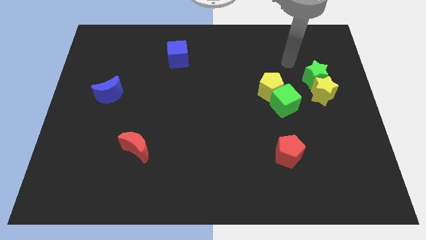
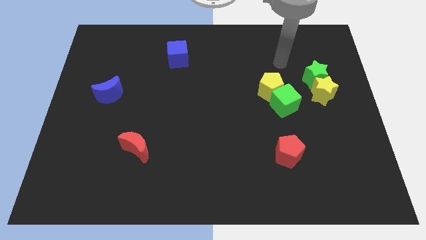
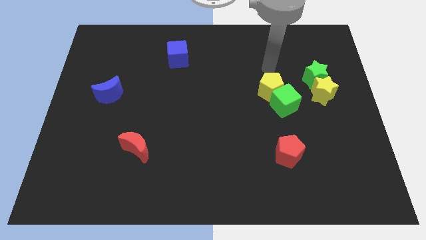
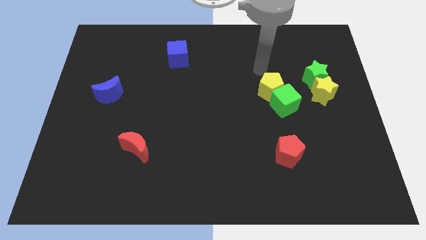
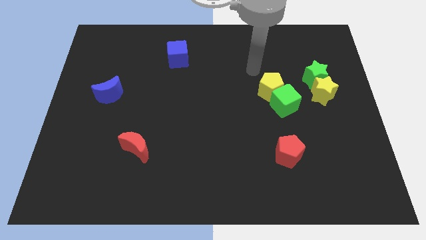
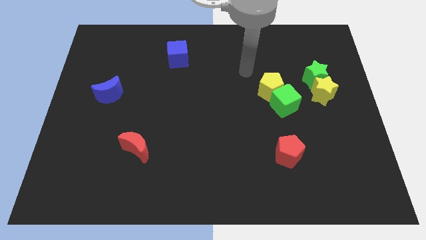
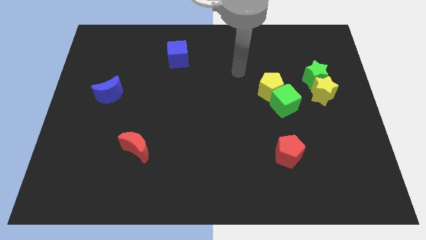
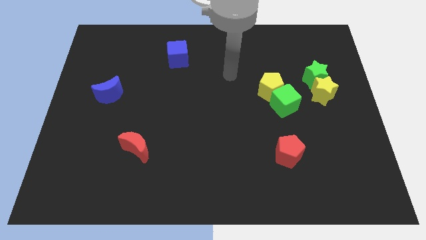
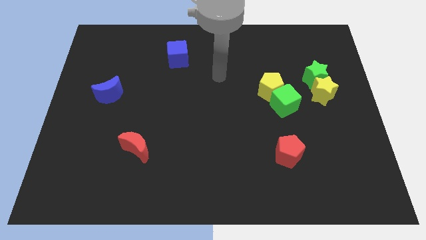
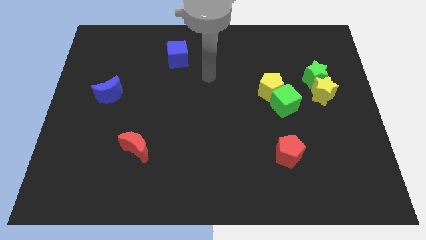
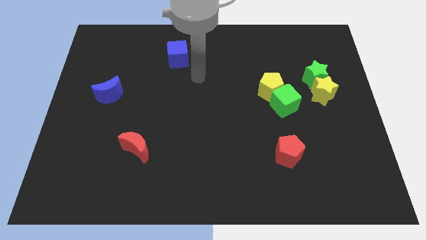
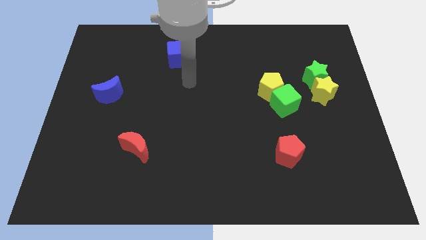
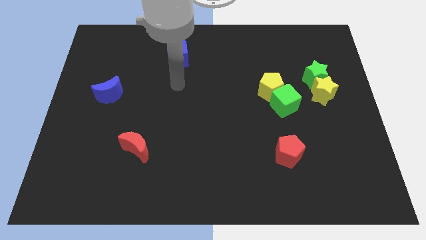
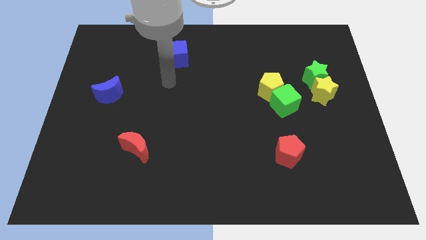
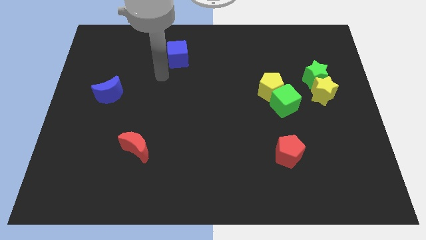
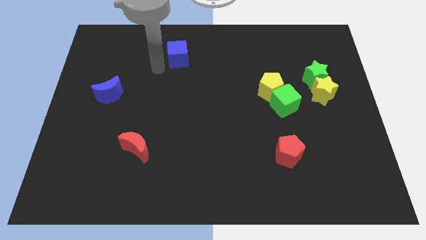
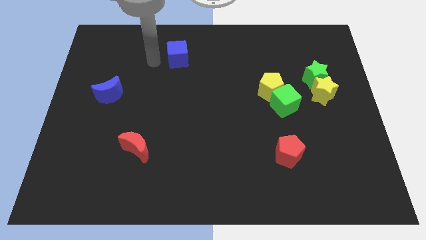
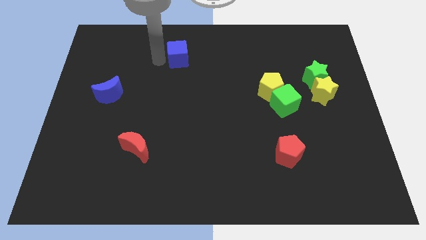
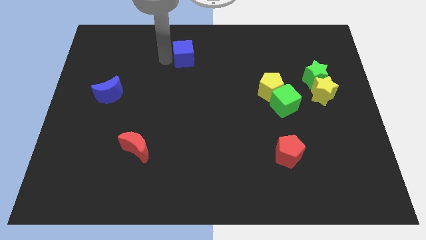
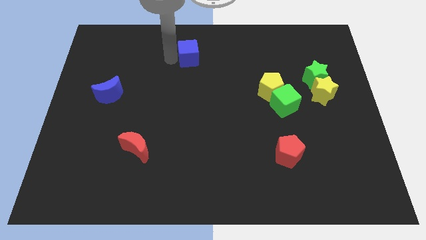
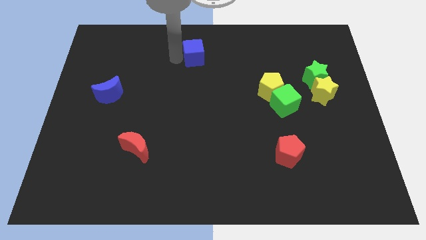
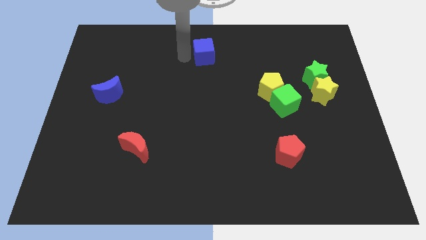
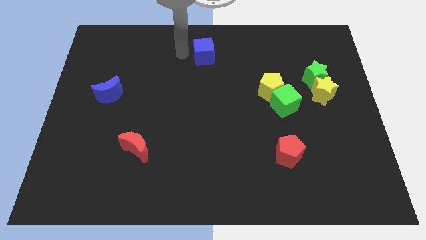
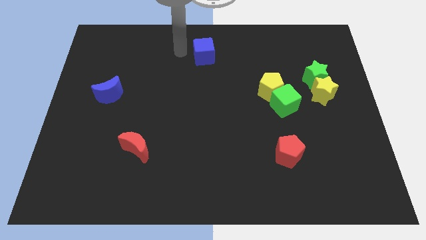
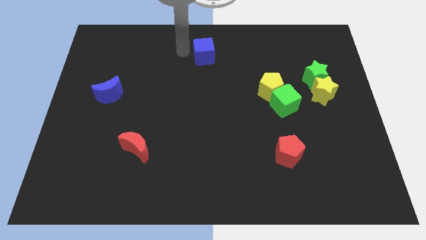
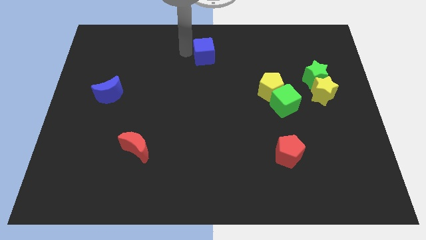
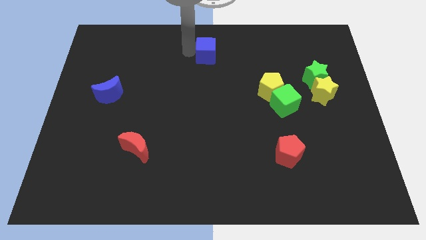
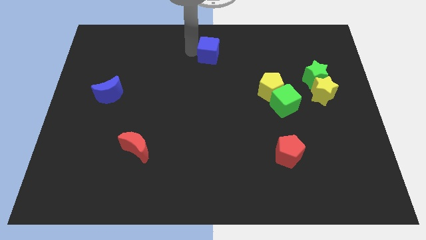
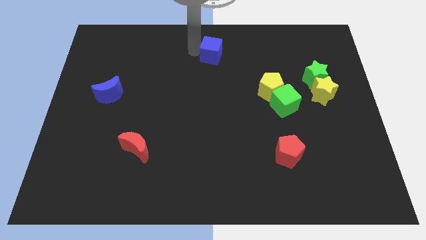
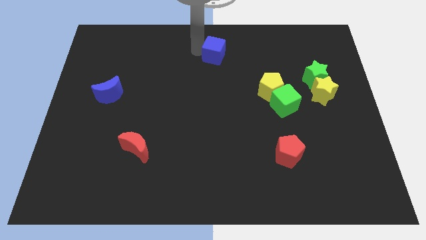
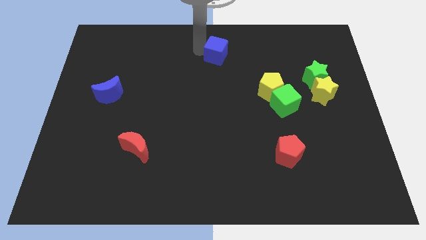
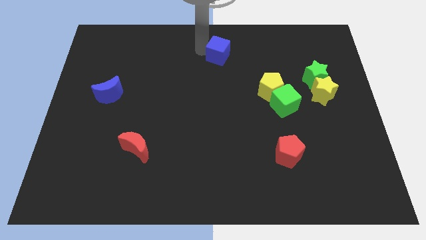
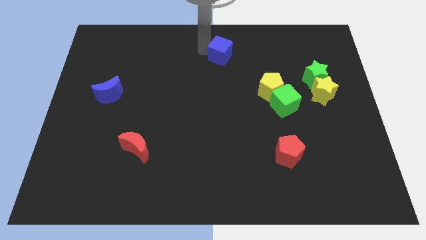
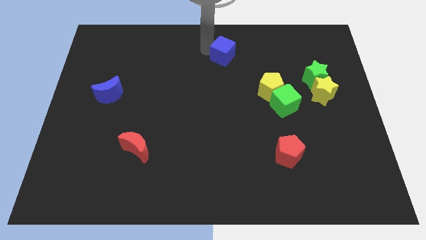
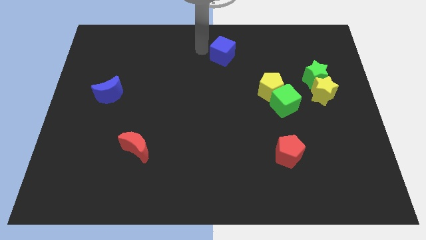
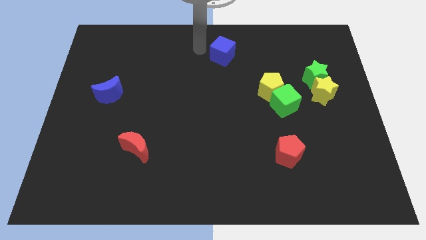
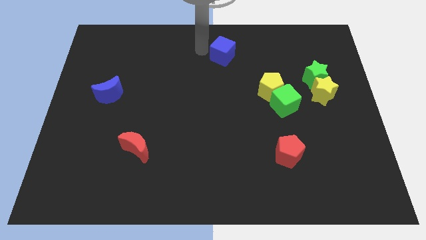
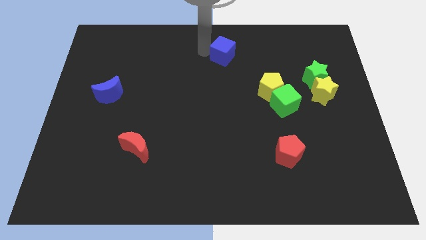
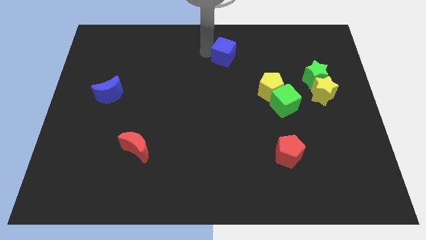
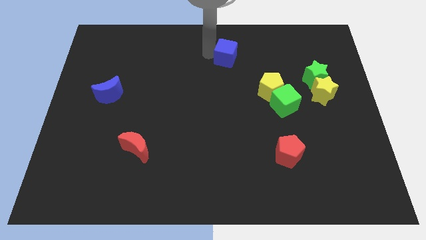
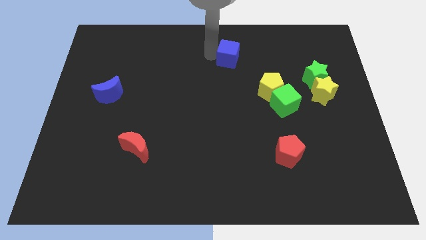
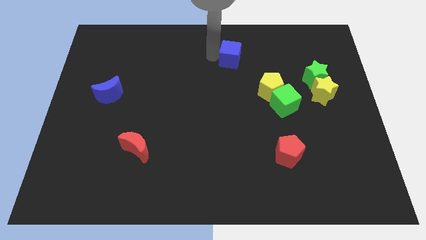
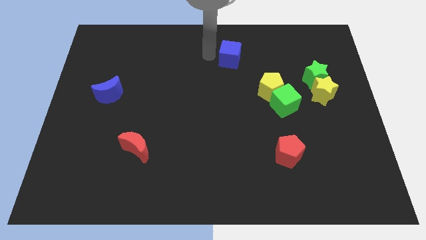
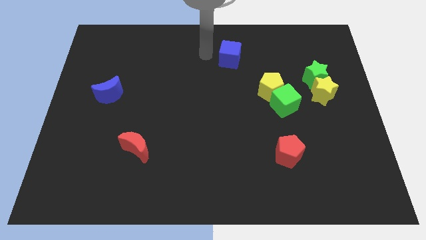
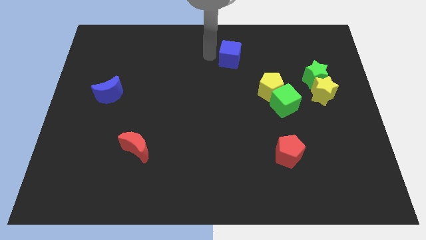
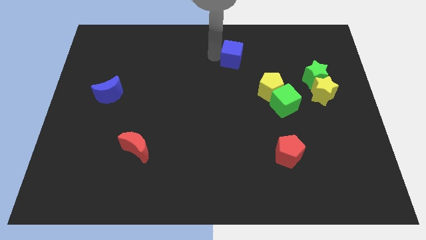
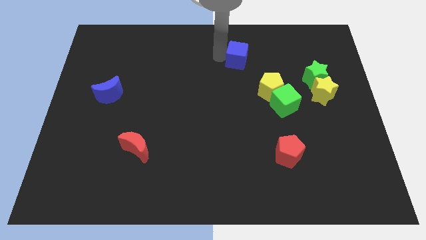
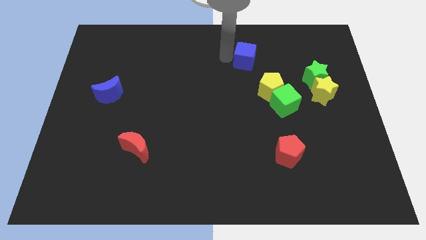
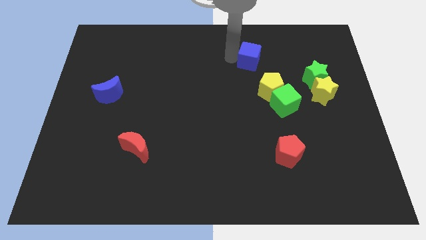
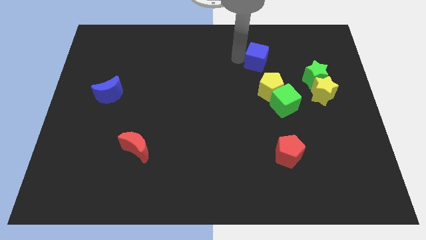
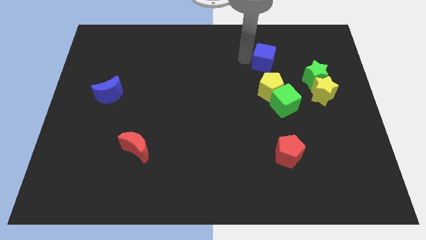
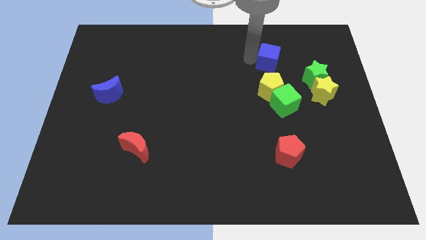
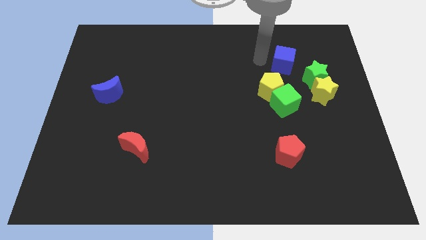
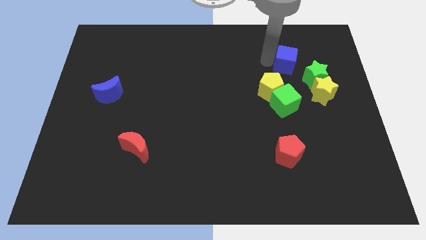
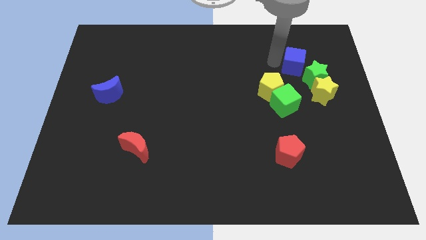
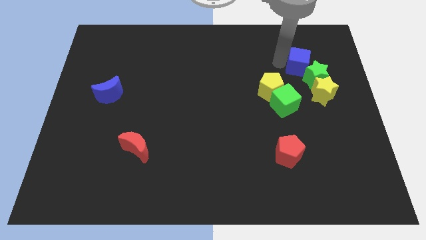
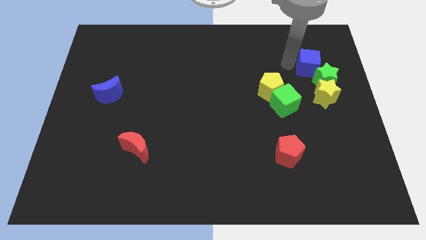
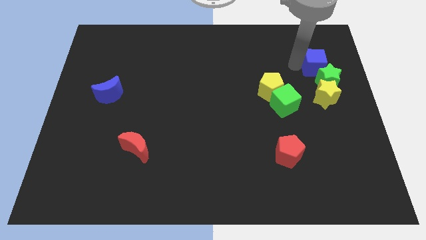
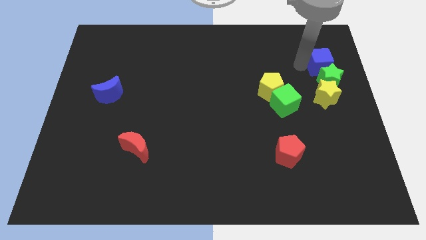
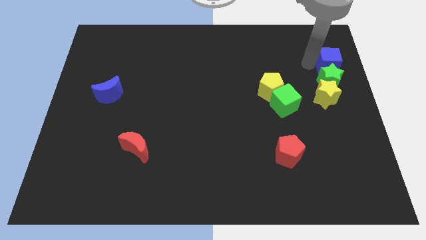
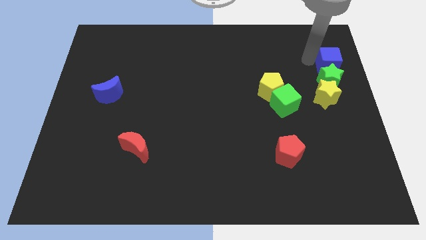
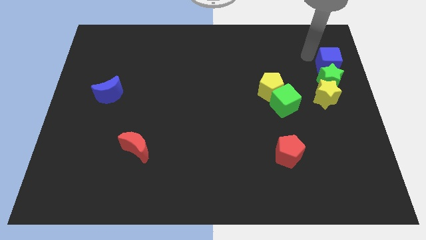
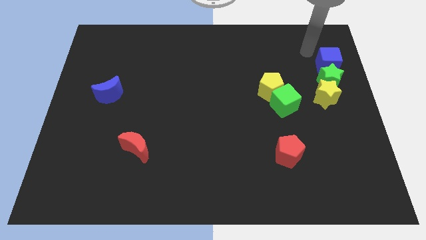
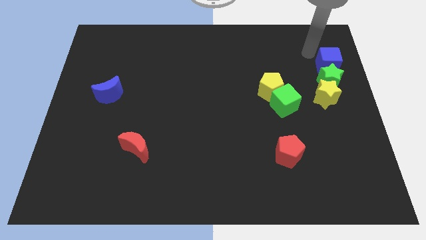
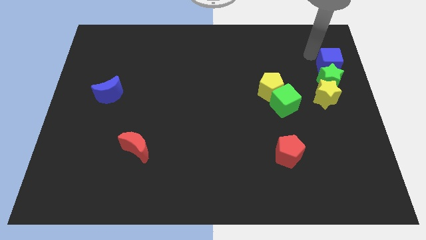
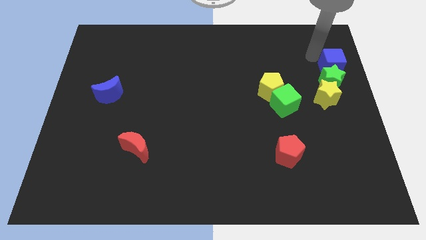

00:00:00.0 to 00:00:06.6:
put the blue cube to the center right

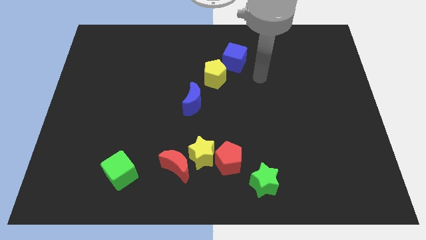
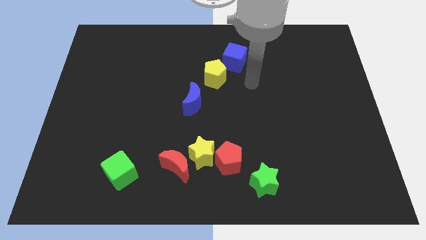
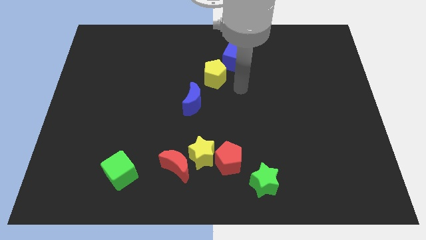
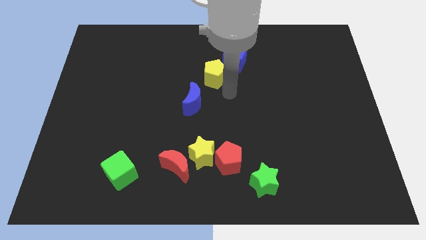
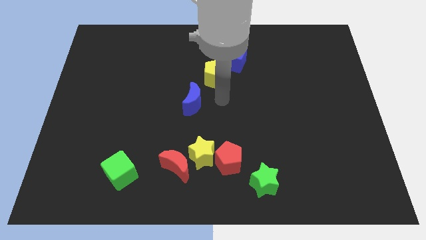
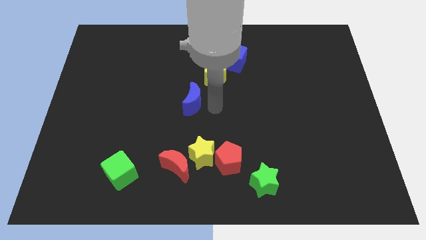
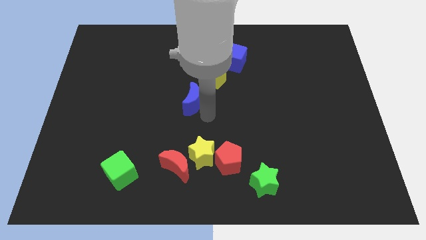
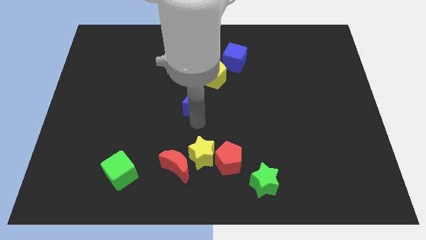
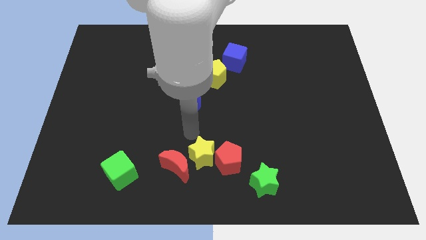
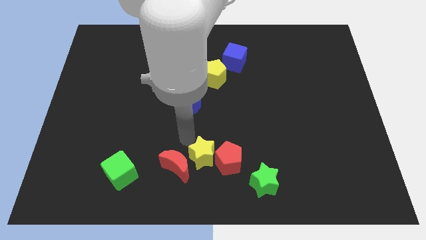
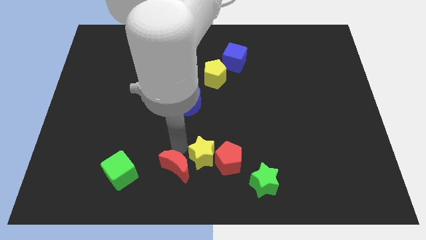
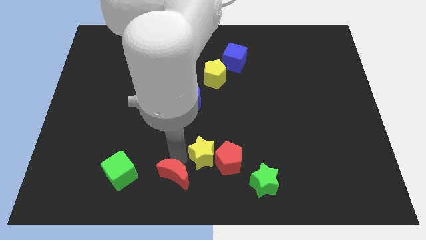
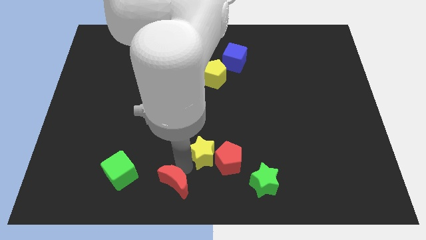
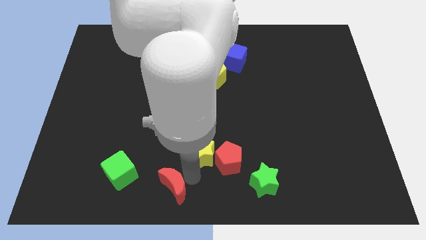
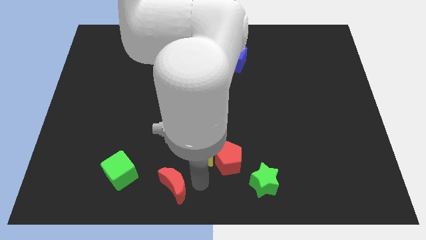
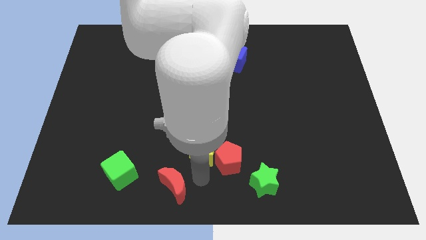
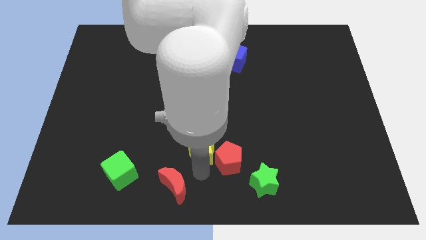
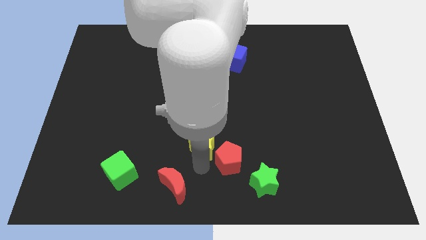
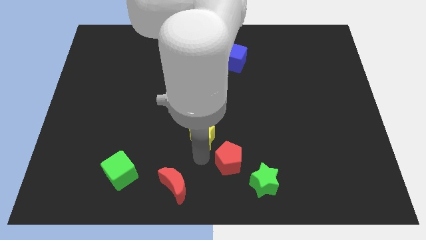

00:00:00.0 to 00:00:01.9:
slide the yellow star to the middle
